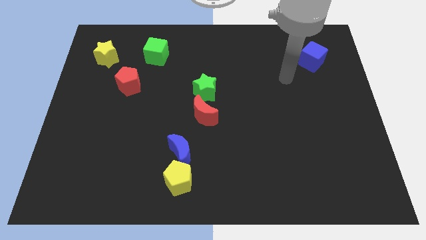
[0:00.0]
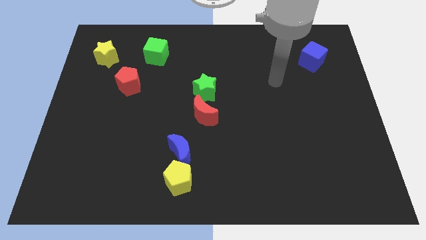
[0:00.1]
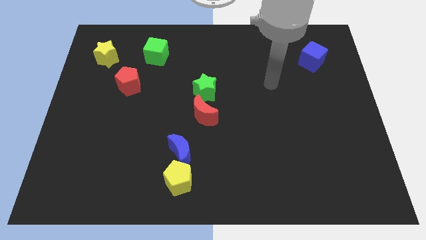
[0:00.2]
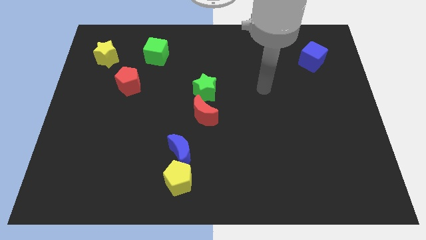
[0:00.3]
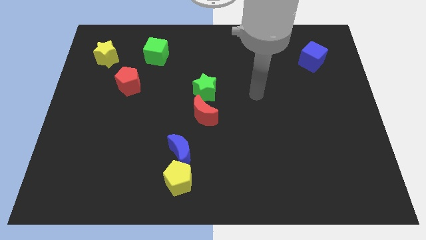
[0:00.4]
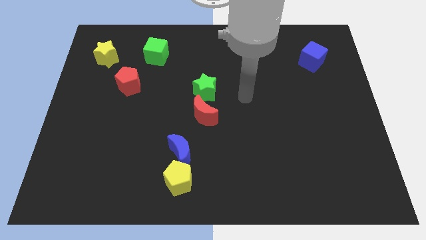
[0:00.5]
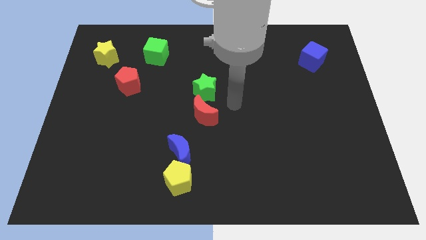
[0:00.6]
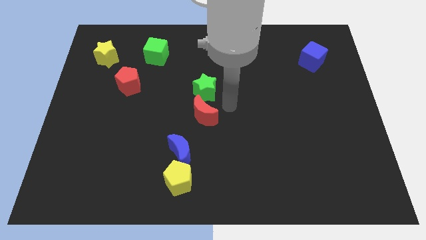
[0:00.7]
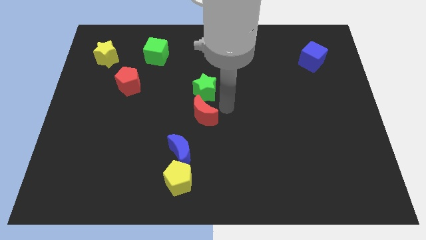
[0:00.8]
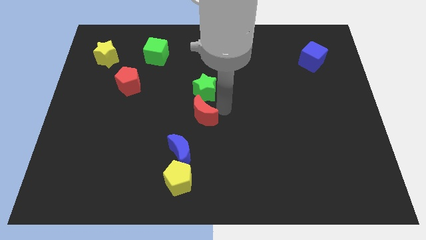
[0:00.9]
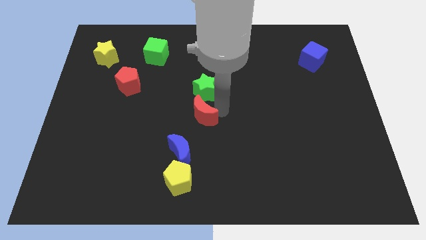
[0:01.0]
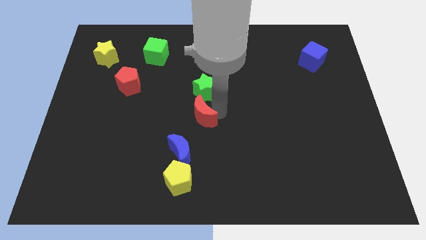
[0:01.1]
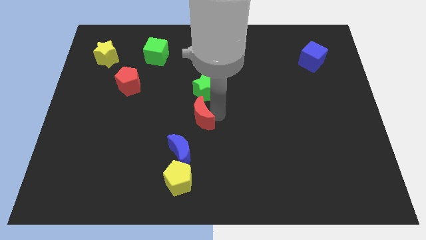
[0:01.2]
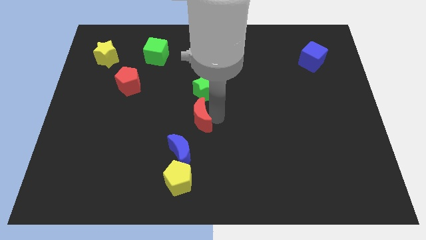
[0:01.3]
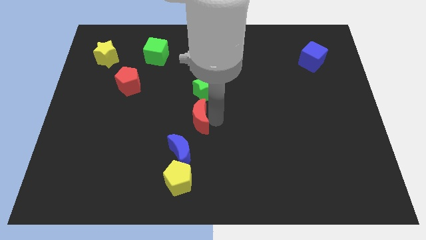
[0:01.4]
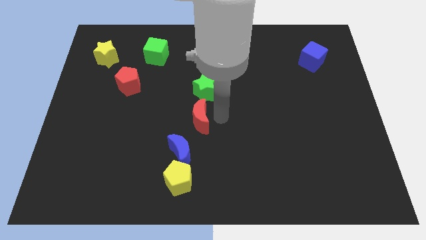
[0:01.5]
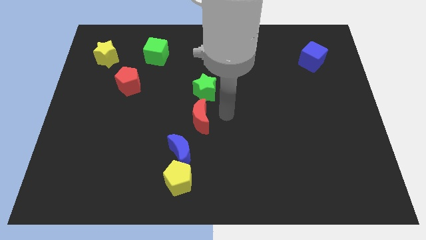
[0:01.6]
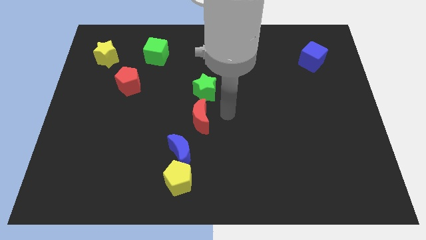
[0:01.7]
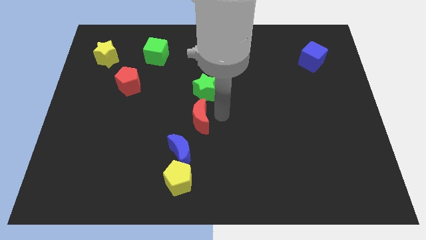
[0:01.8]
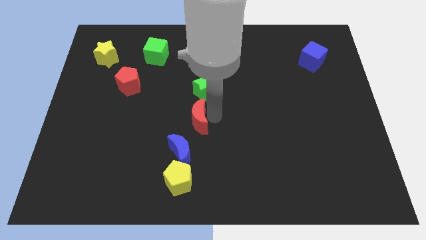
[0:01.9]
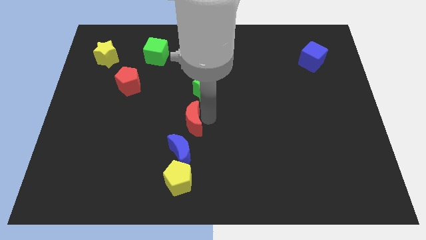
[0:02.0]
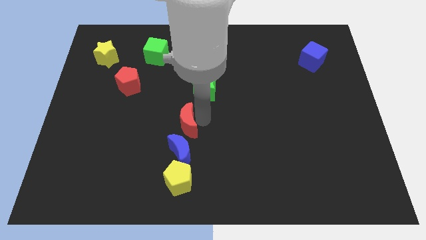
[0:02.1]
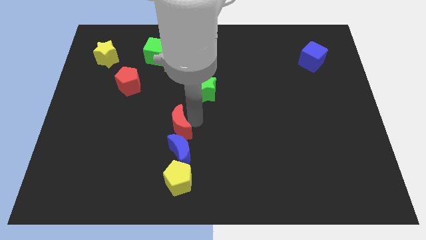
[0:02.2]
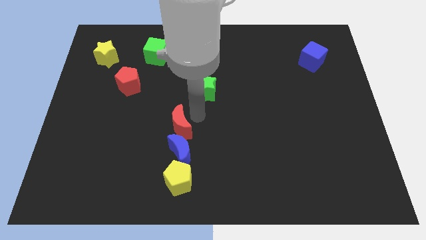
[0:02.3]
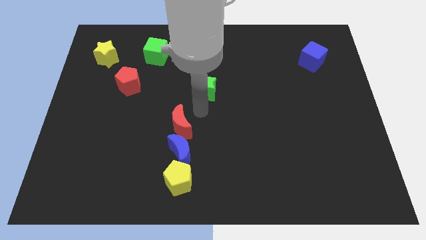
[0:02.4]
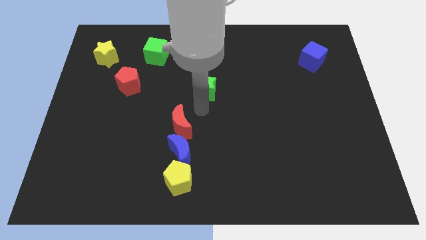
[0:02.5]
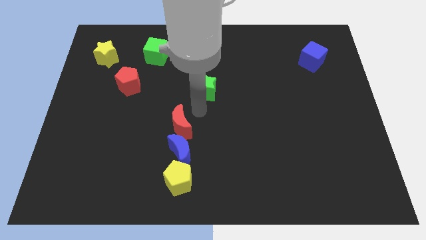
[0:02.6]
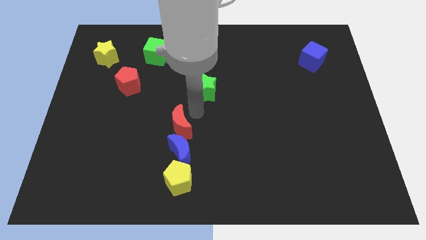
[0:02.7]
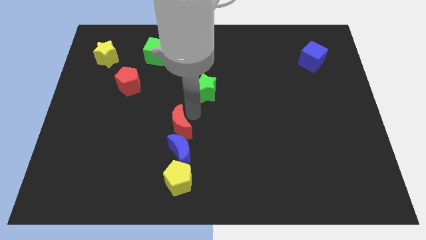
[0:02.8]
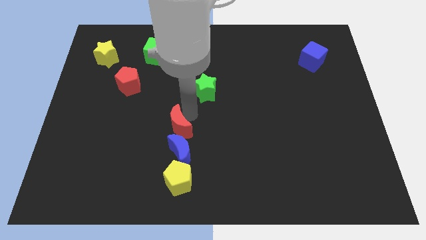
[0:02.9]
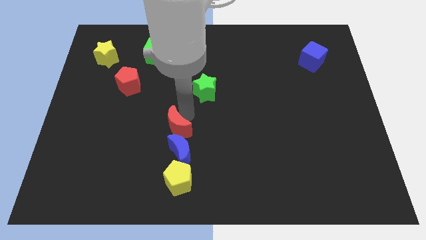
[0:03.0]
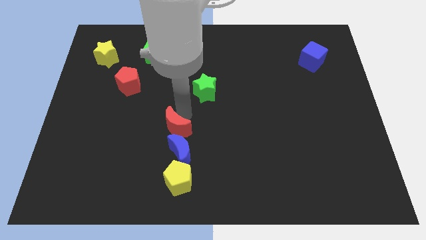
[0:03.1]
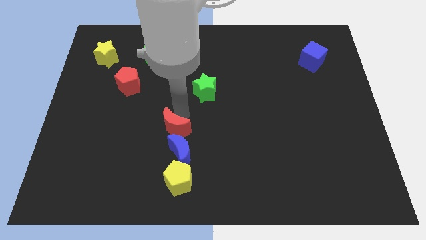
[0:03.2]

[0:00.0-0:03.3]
slide the red moon slightly down and then to the left

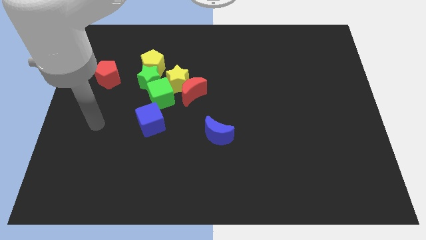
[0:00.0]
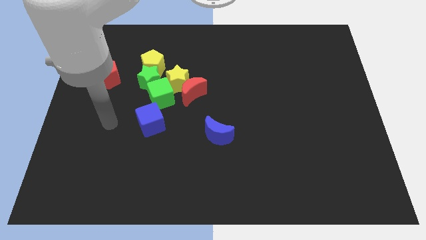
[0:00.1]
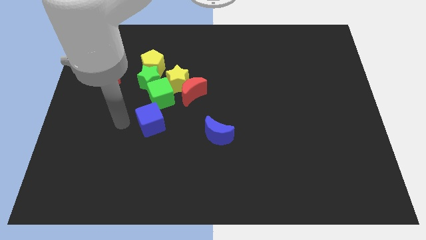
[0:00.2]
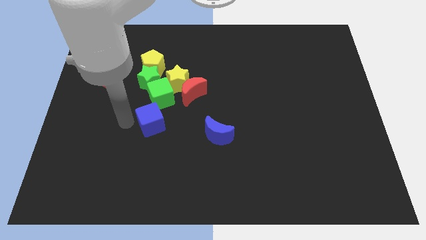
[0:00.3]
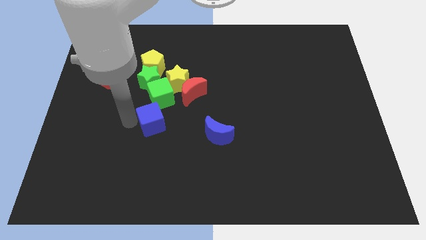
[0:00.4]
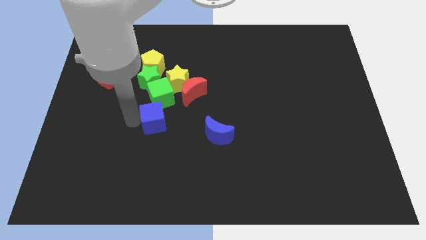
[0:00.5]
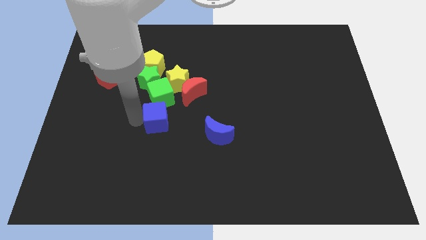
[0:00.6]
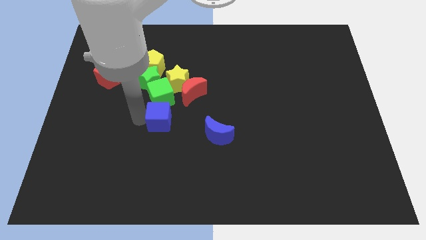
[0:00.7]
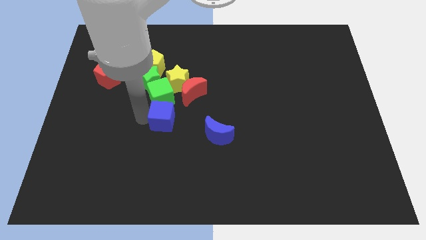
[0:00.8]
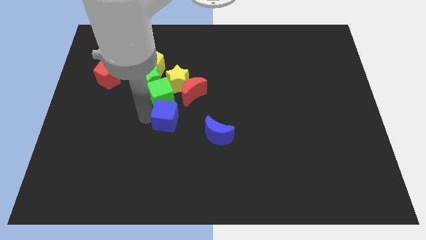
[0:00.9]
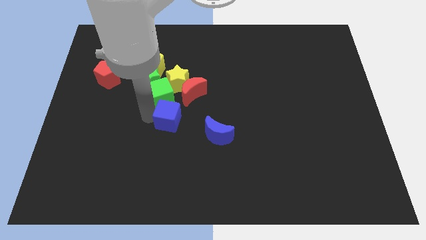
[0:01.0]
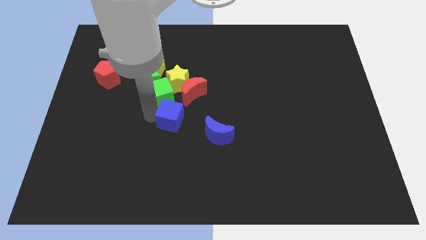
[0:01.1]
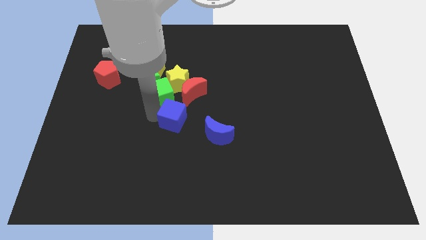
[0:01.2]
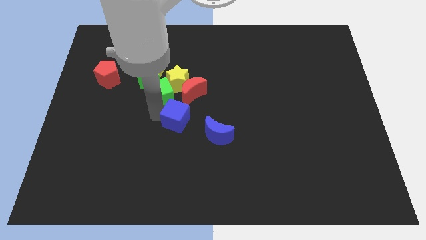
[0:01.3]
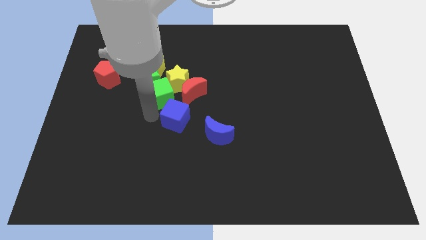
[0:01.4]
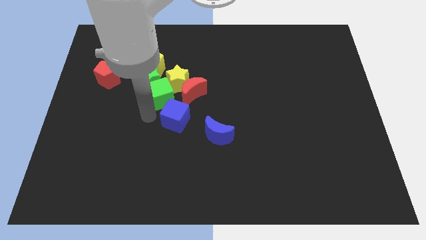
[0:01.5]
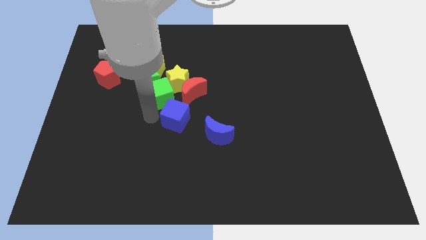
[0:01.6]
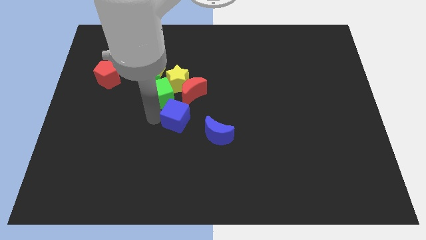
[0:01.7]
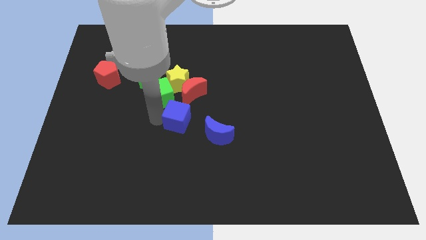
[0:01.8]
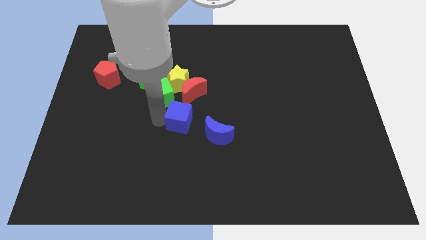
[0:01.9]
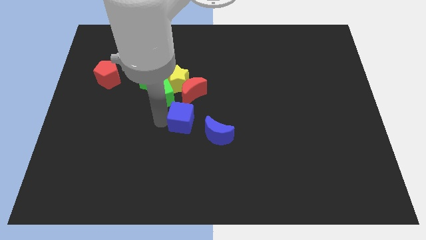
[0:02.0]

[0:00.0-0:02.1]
push the blue cube to the right a bit

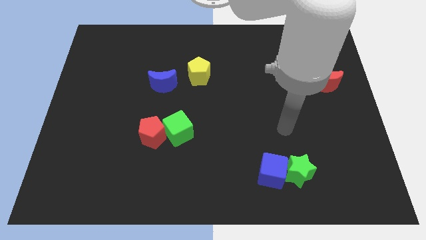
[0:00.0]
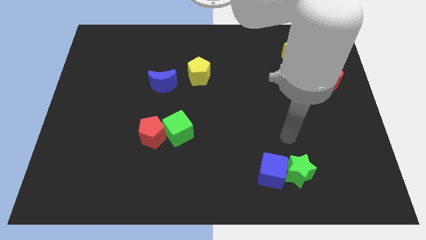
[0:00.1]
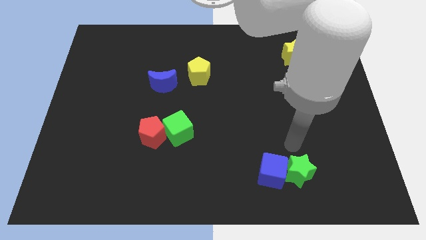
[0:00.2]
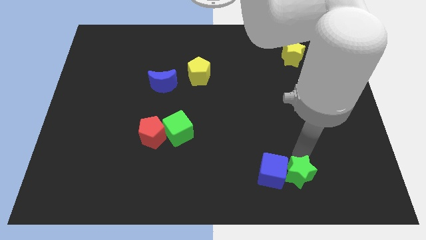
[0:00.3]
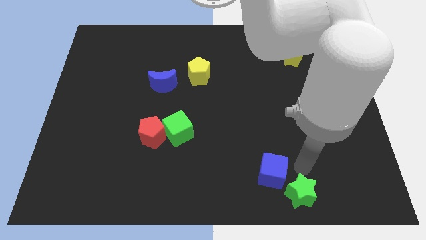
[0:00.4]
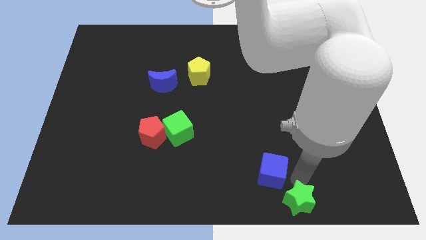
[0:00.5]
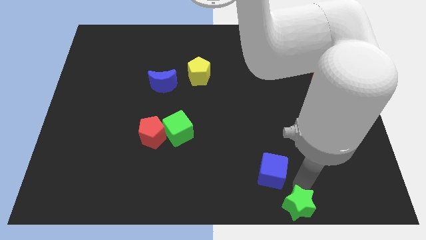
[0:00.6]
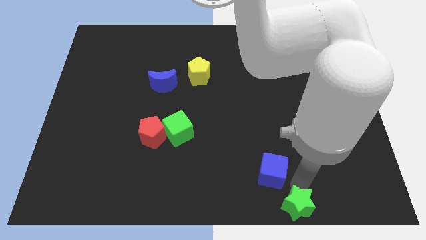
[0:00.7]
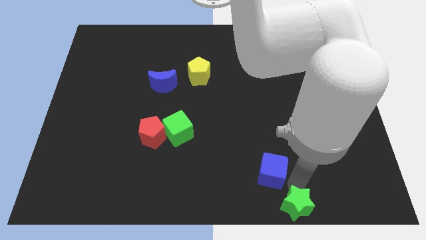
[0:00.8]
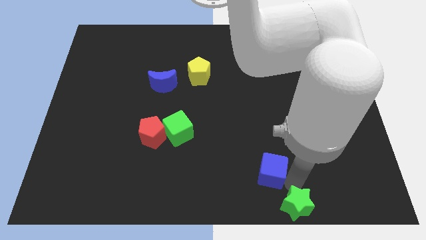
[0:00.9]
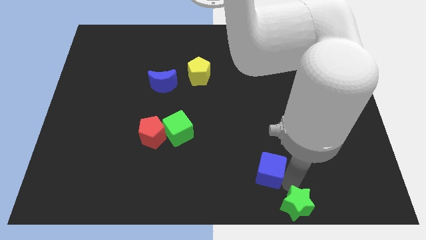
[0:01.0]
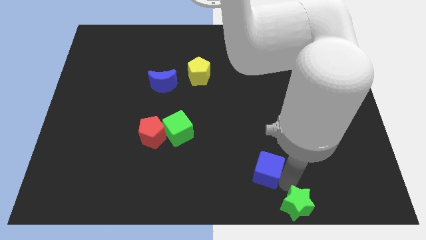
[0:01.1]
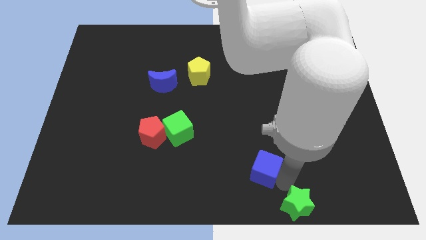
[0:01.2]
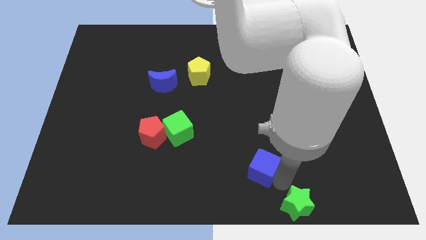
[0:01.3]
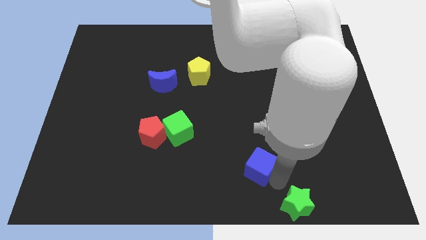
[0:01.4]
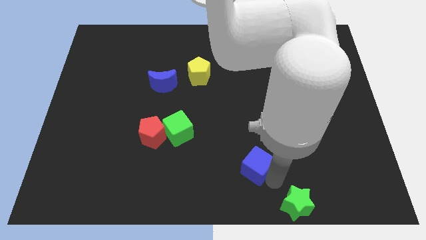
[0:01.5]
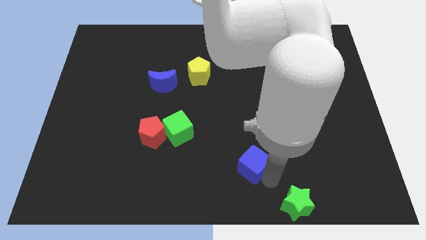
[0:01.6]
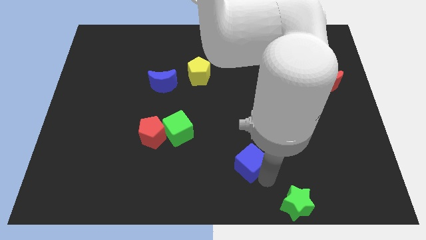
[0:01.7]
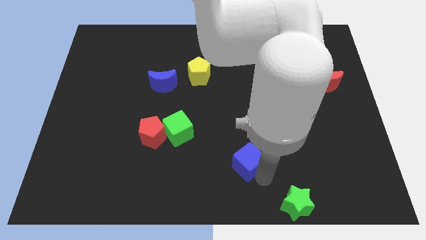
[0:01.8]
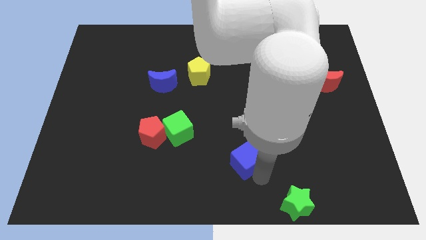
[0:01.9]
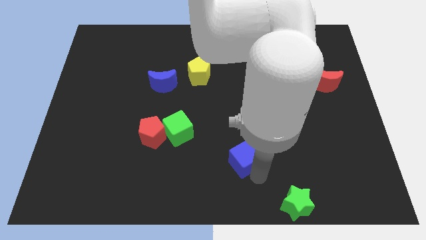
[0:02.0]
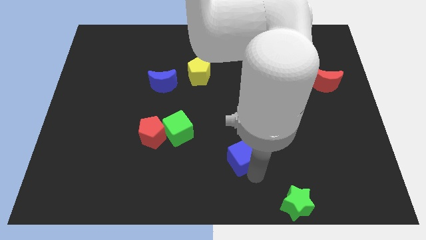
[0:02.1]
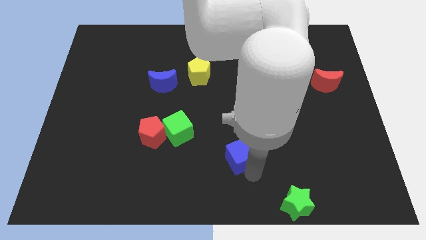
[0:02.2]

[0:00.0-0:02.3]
slightly move the blue cube up and to the left diagonally

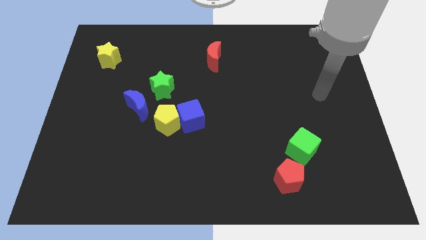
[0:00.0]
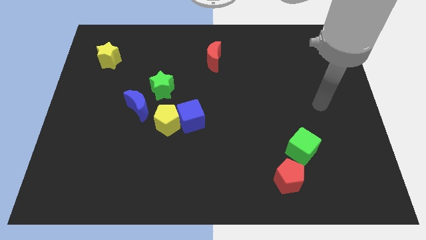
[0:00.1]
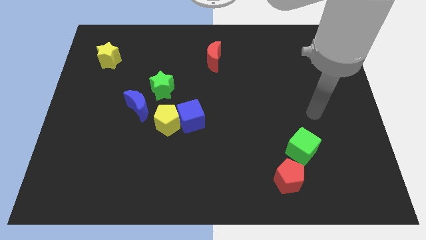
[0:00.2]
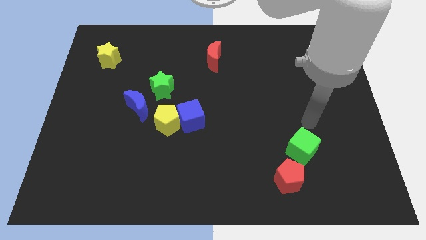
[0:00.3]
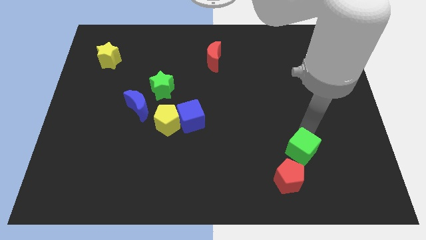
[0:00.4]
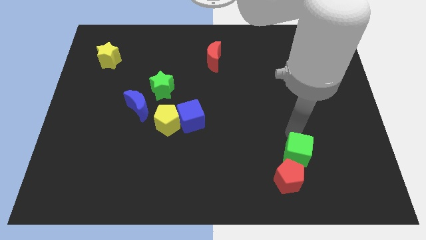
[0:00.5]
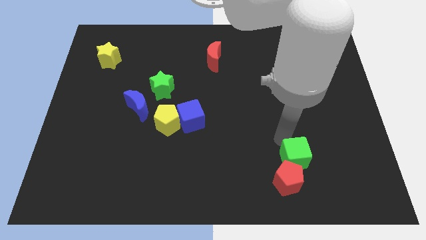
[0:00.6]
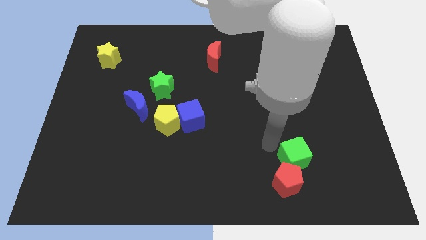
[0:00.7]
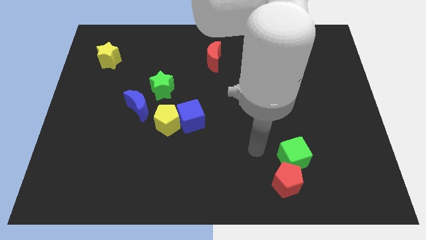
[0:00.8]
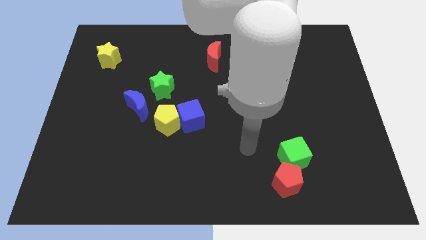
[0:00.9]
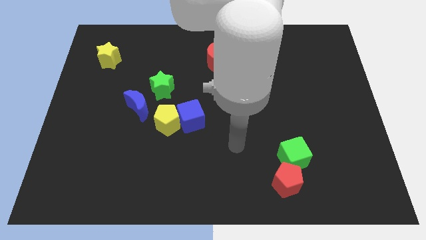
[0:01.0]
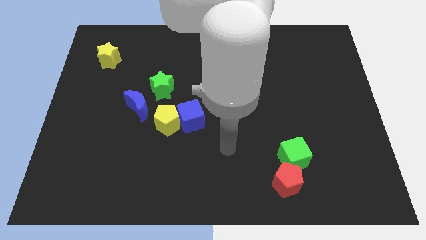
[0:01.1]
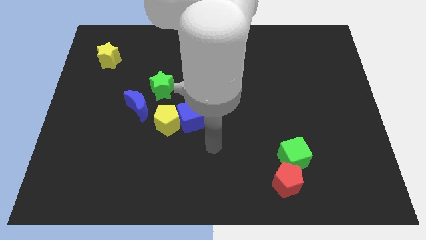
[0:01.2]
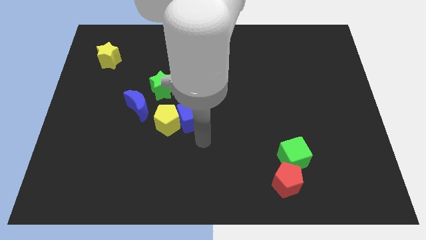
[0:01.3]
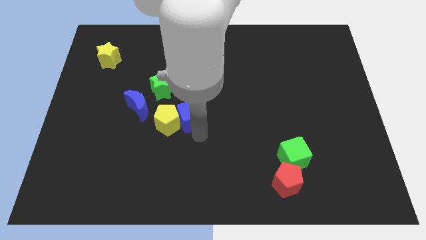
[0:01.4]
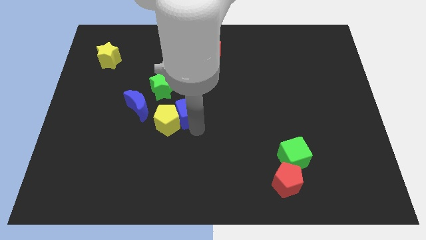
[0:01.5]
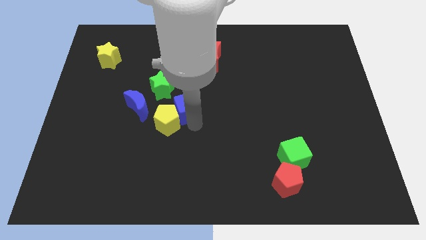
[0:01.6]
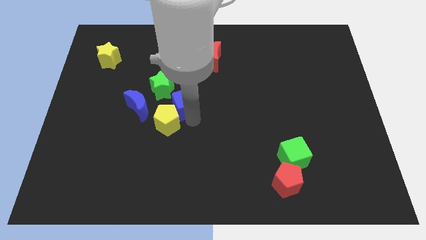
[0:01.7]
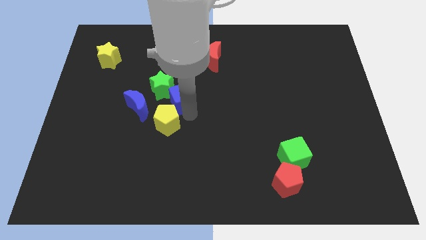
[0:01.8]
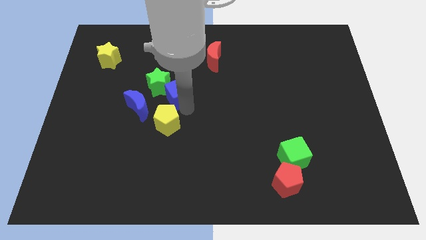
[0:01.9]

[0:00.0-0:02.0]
push the blue cube a little bit diagonally upwards and left
